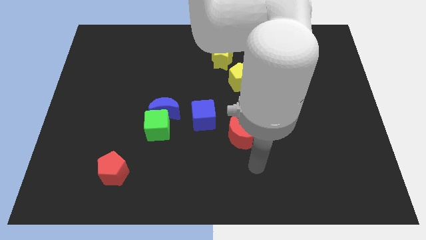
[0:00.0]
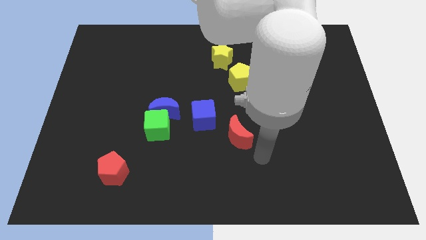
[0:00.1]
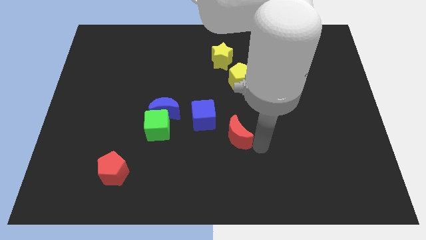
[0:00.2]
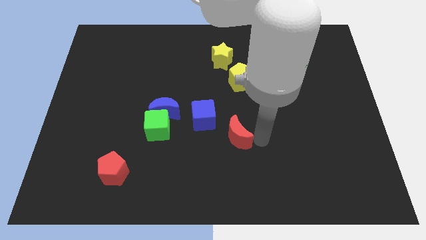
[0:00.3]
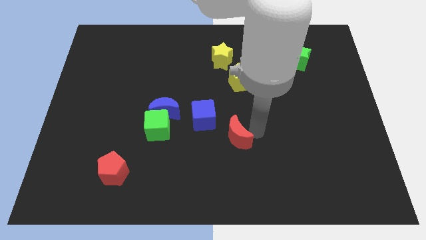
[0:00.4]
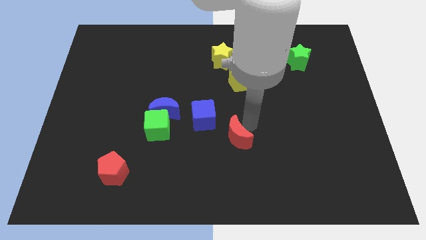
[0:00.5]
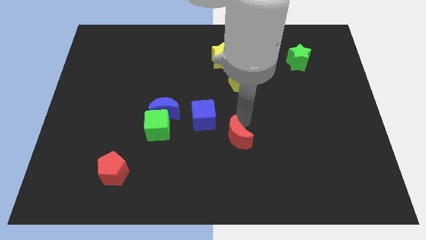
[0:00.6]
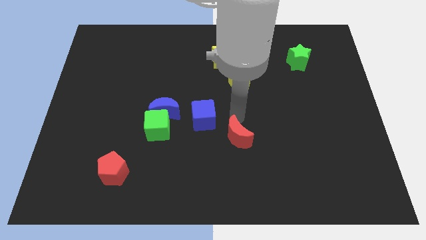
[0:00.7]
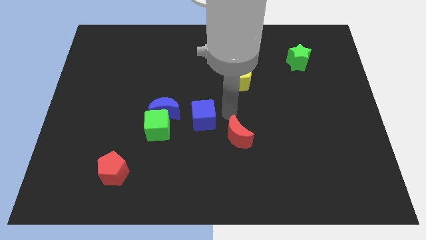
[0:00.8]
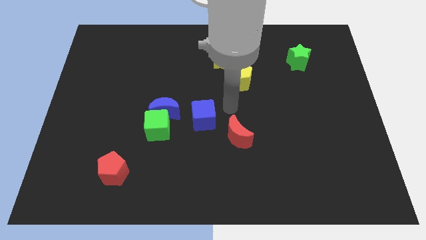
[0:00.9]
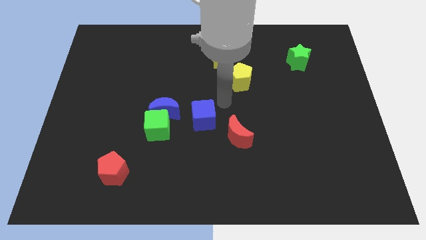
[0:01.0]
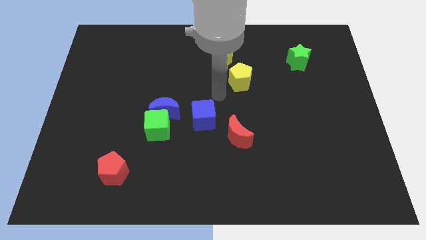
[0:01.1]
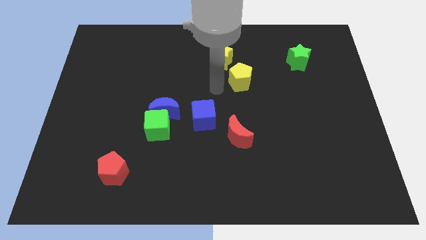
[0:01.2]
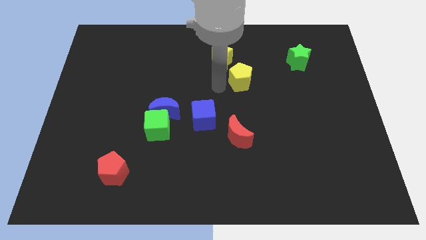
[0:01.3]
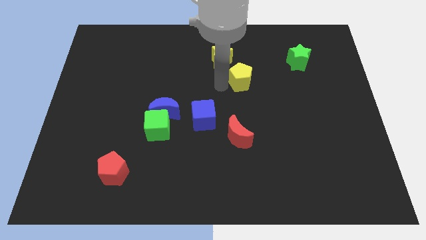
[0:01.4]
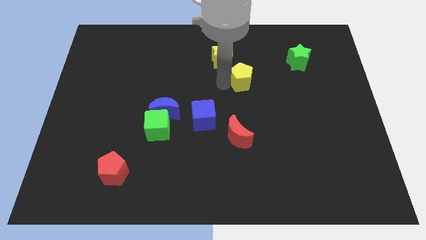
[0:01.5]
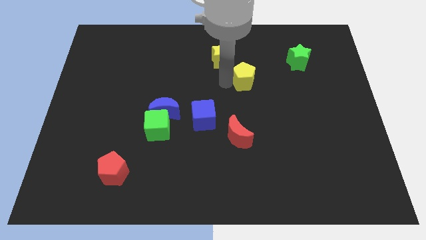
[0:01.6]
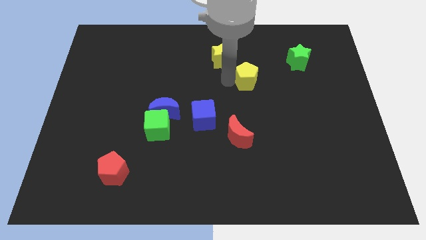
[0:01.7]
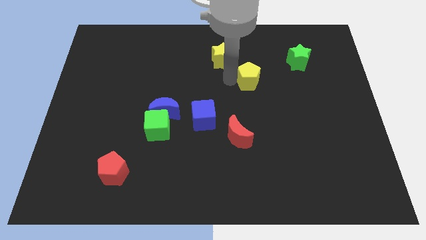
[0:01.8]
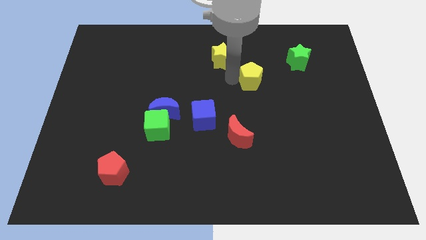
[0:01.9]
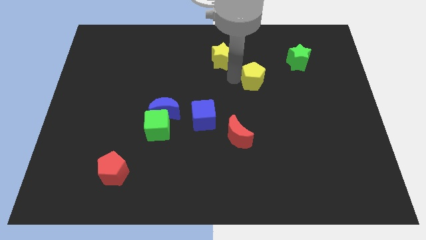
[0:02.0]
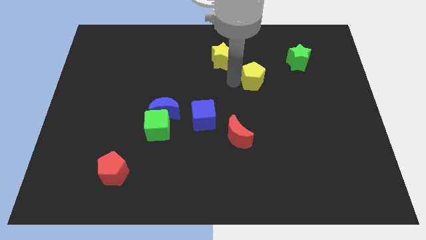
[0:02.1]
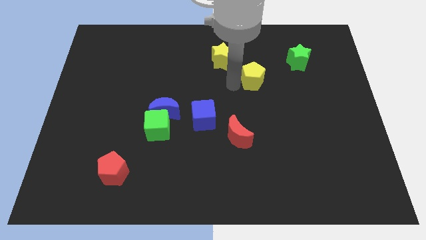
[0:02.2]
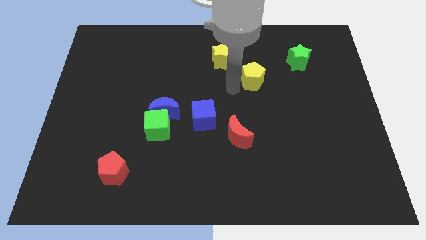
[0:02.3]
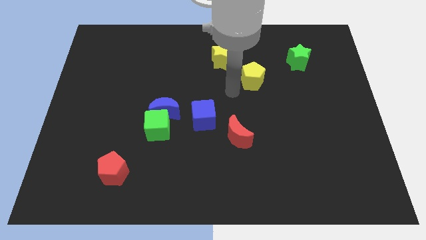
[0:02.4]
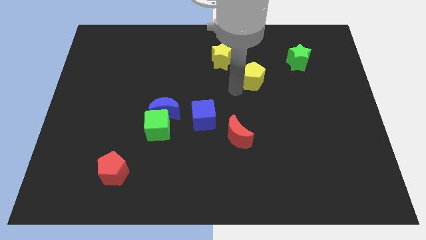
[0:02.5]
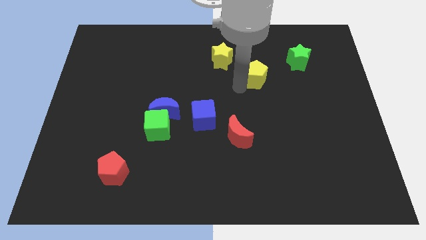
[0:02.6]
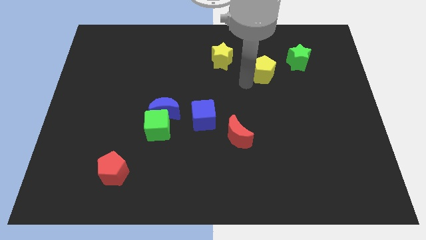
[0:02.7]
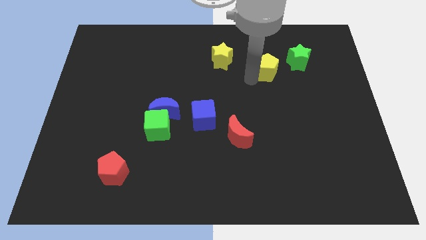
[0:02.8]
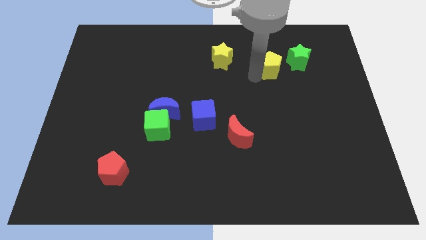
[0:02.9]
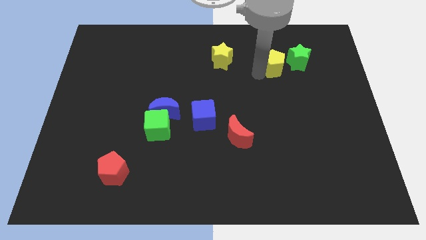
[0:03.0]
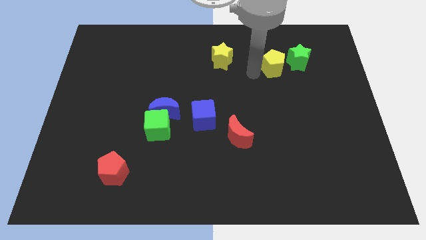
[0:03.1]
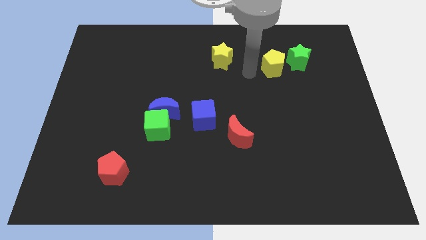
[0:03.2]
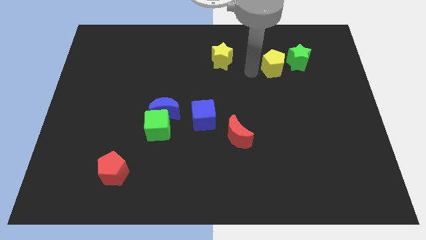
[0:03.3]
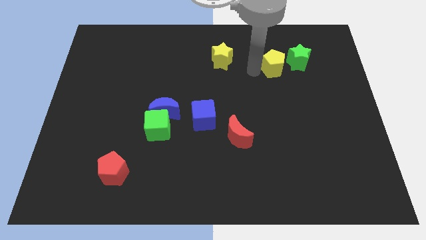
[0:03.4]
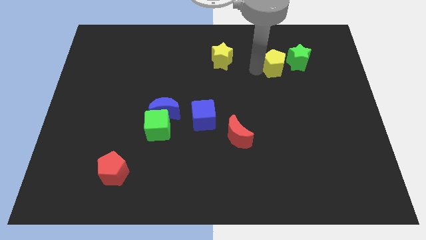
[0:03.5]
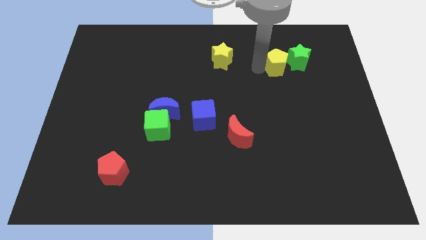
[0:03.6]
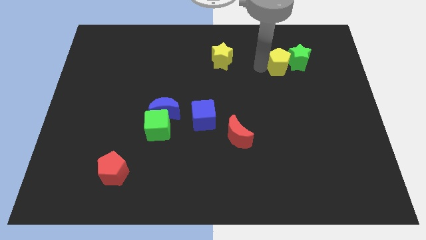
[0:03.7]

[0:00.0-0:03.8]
push the yellow pentagon next to the green star

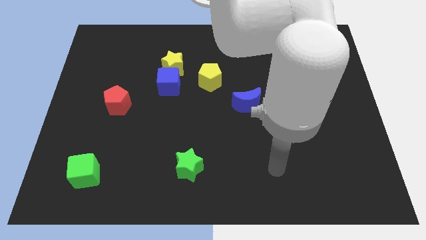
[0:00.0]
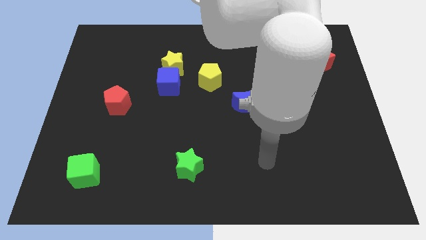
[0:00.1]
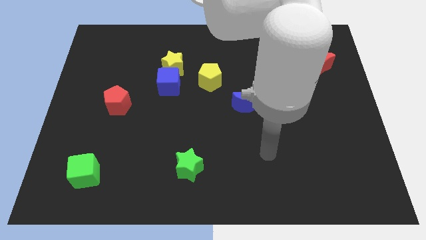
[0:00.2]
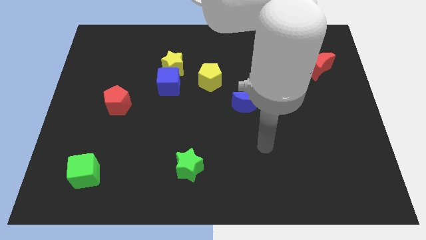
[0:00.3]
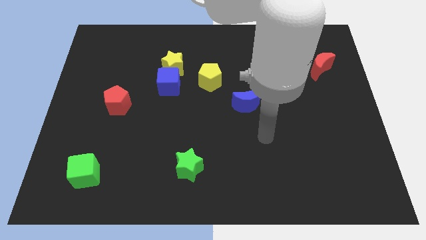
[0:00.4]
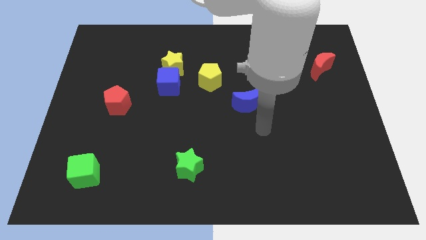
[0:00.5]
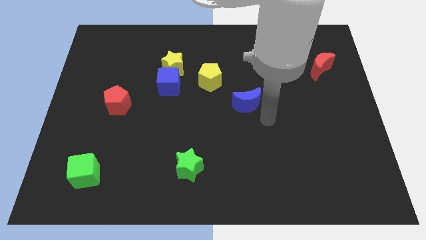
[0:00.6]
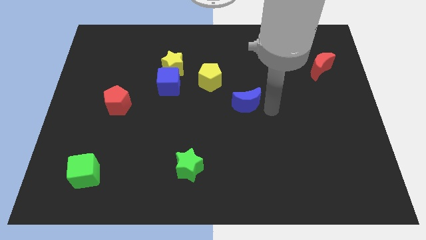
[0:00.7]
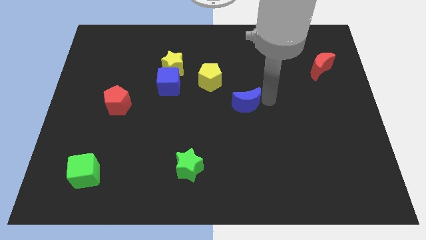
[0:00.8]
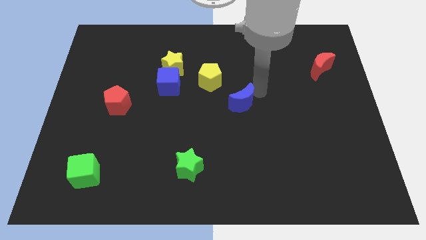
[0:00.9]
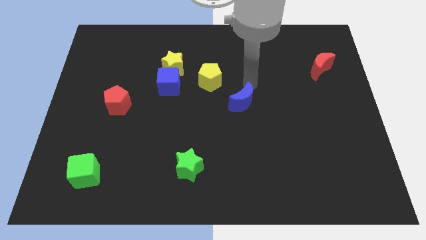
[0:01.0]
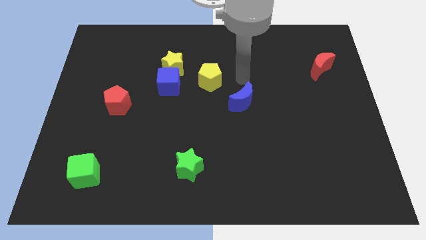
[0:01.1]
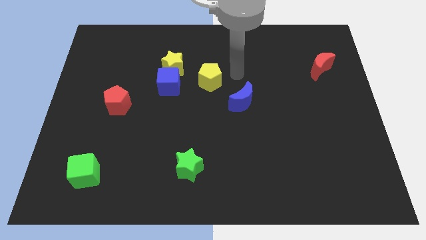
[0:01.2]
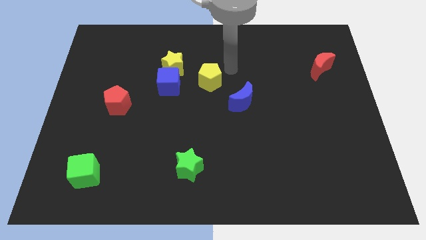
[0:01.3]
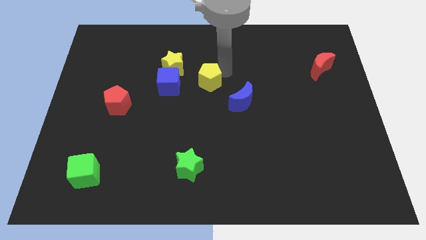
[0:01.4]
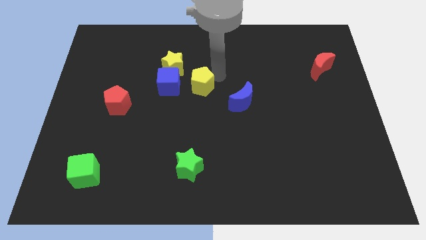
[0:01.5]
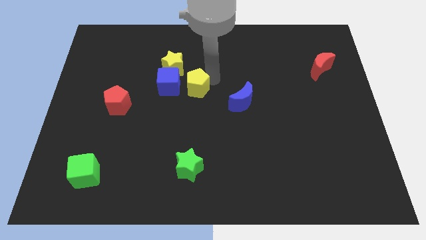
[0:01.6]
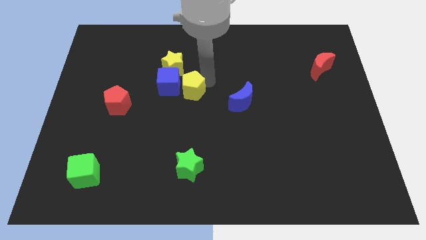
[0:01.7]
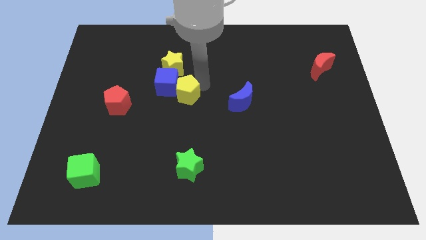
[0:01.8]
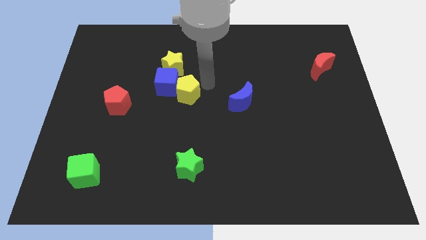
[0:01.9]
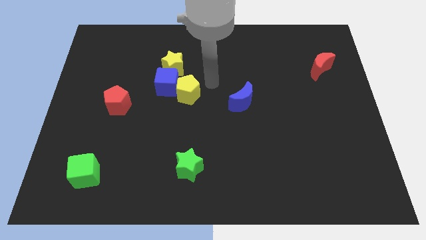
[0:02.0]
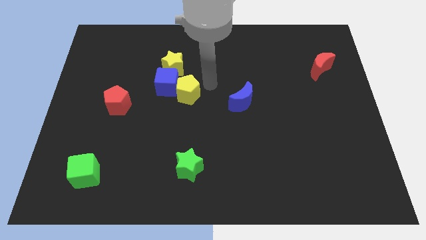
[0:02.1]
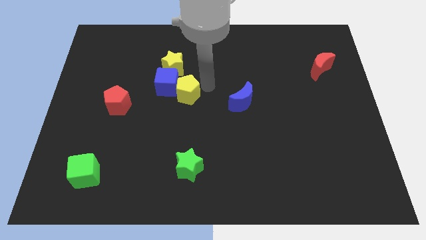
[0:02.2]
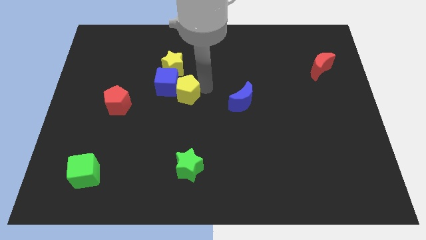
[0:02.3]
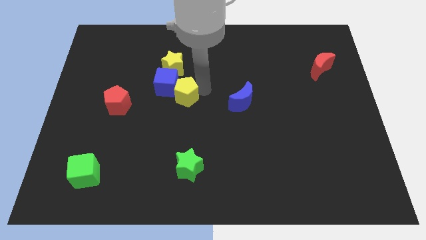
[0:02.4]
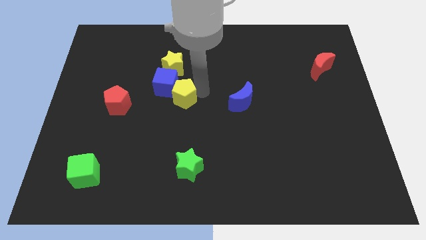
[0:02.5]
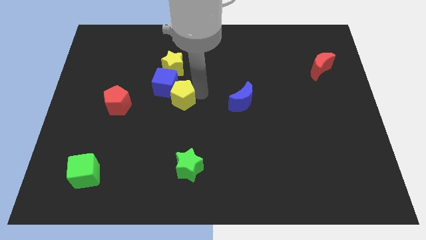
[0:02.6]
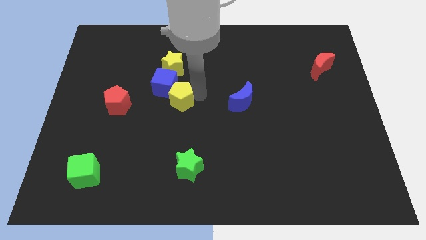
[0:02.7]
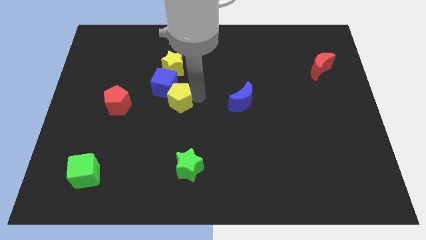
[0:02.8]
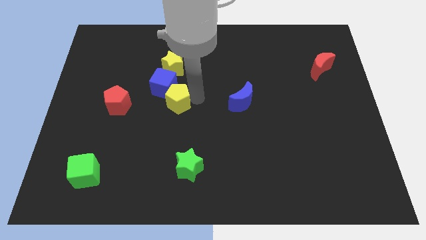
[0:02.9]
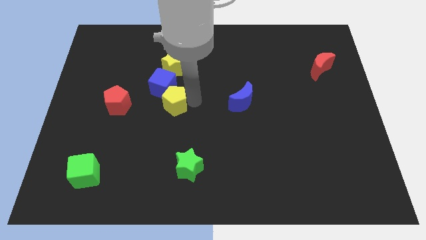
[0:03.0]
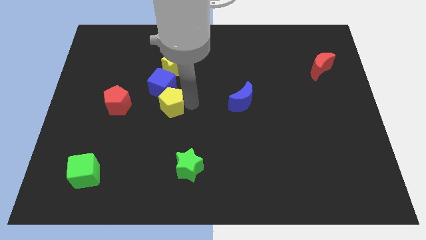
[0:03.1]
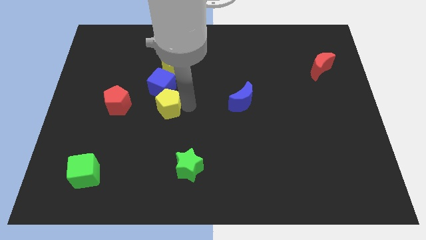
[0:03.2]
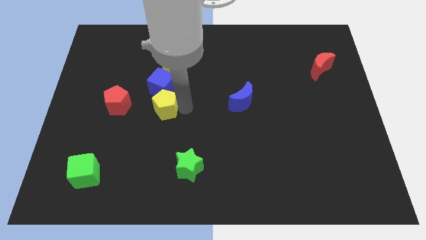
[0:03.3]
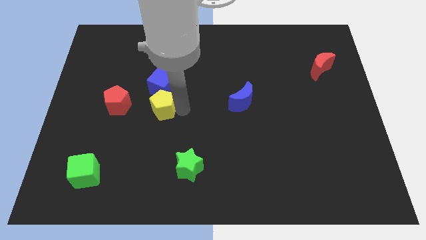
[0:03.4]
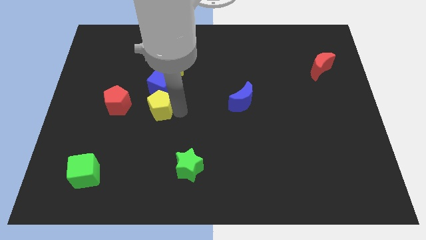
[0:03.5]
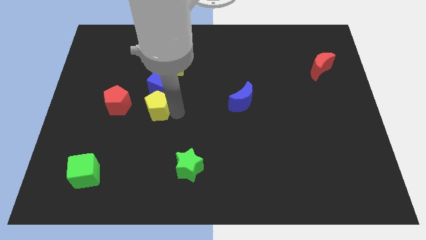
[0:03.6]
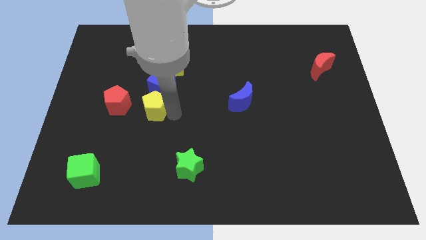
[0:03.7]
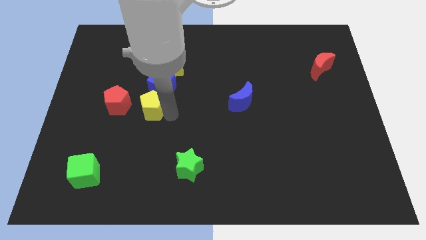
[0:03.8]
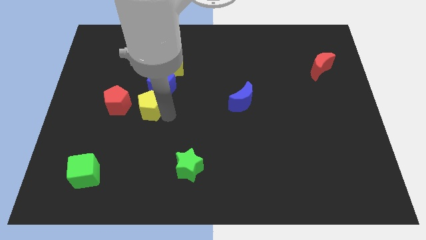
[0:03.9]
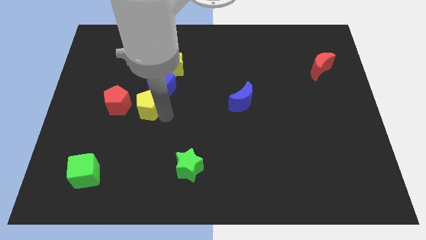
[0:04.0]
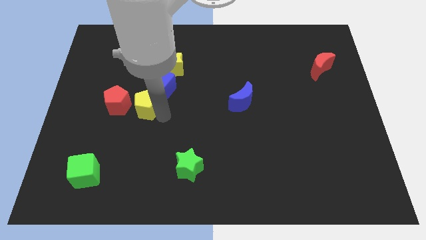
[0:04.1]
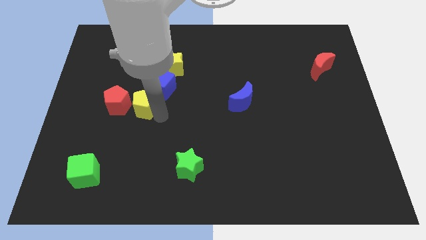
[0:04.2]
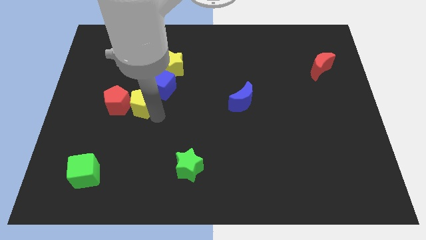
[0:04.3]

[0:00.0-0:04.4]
move the yellow pentagon to the red pentagon
